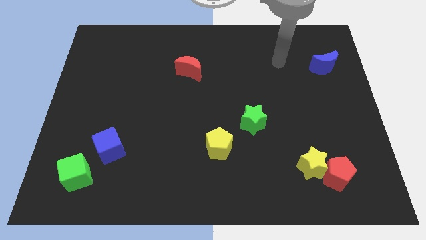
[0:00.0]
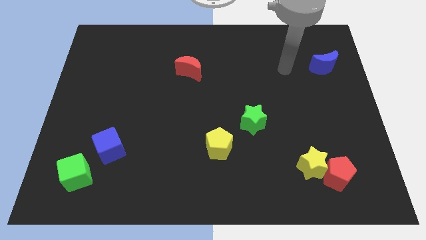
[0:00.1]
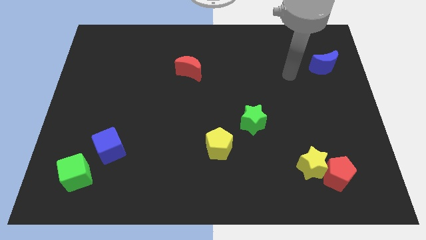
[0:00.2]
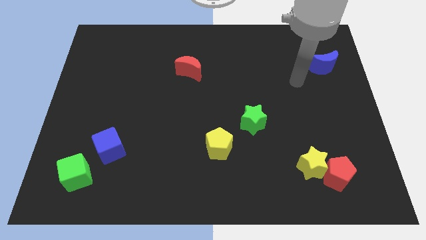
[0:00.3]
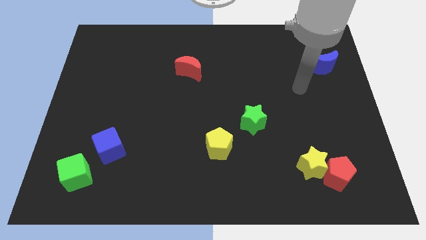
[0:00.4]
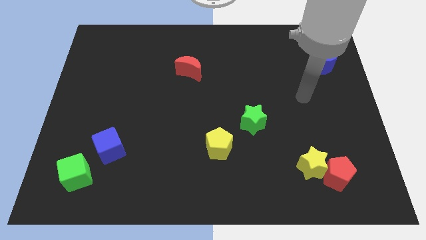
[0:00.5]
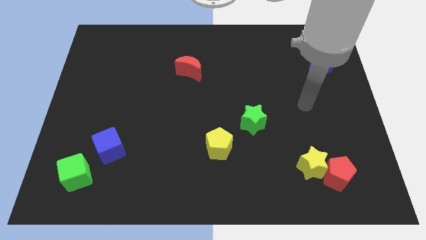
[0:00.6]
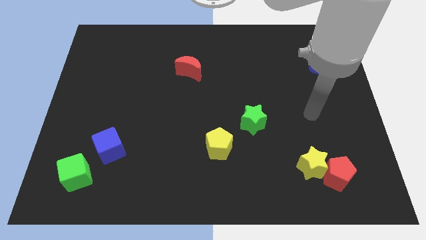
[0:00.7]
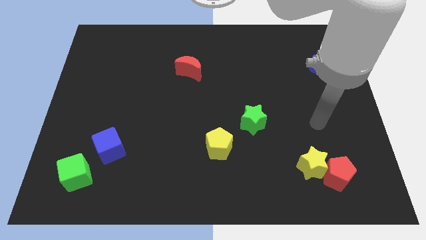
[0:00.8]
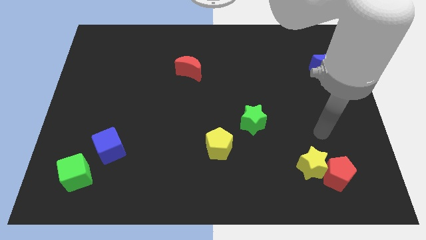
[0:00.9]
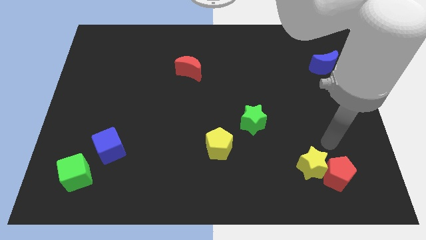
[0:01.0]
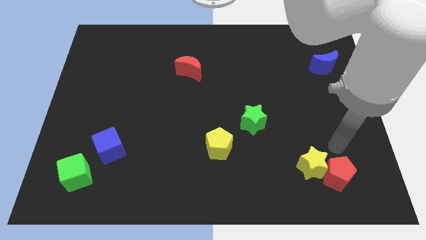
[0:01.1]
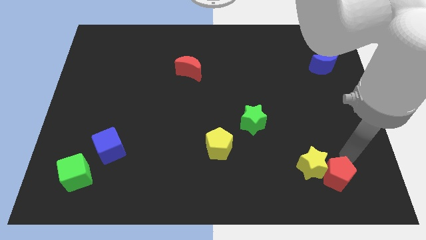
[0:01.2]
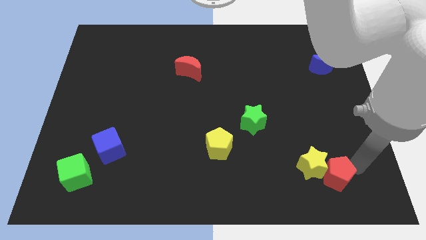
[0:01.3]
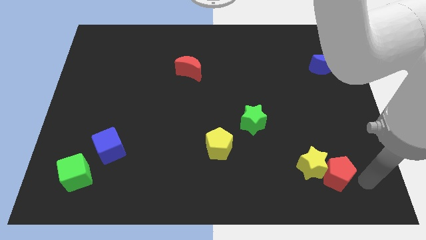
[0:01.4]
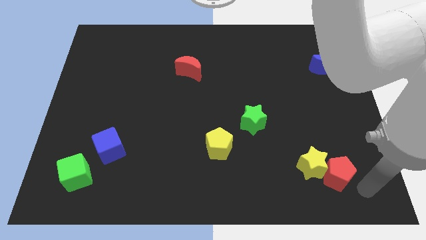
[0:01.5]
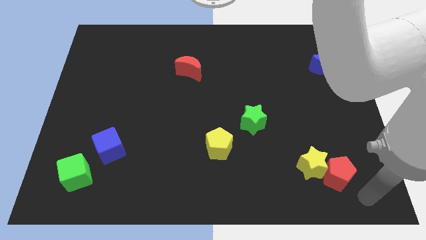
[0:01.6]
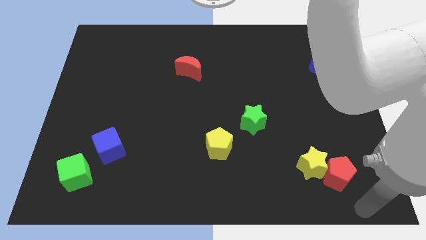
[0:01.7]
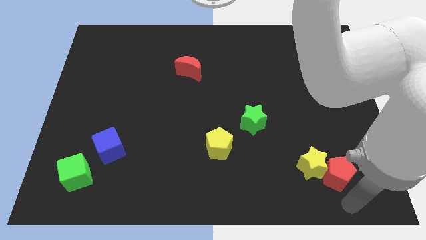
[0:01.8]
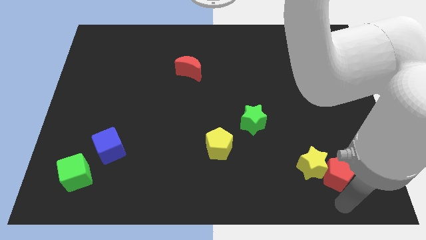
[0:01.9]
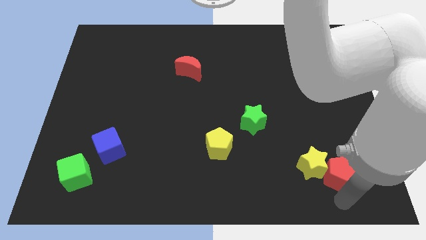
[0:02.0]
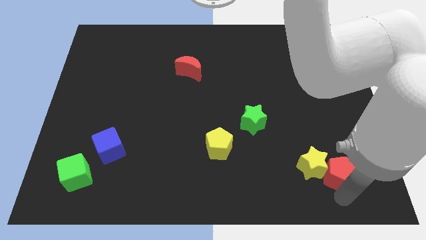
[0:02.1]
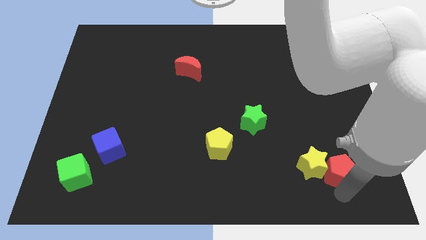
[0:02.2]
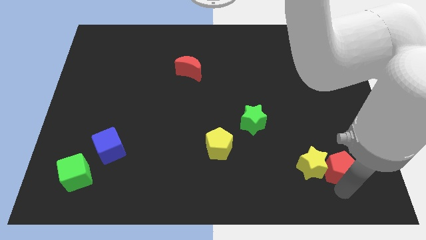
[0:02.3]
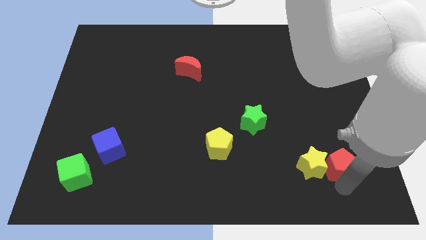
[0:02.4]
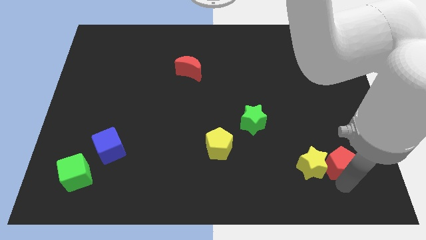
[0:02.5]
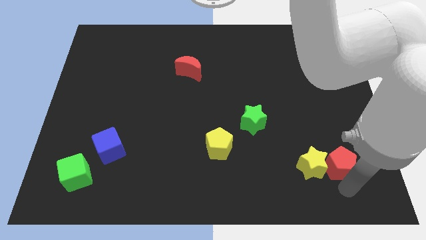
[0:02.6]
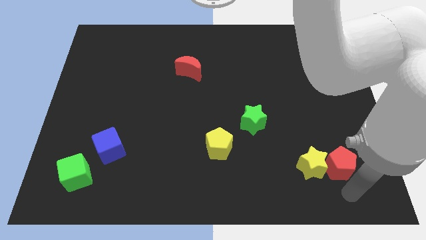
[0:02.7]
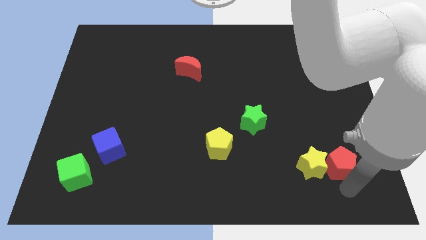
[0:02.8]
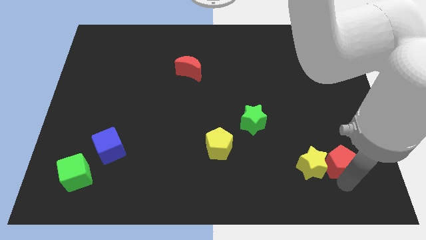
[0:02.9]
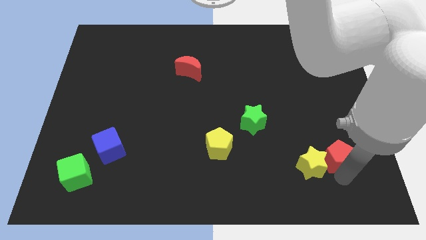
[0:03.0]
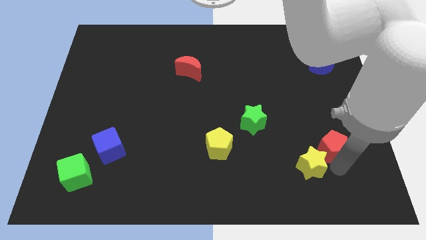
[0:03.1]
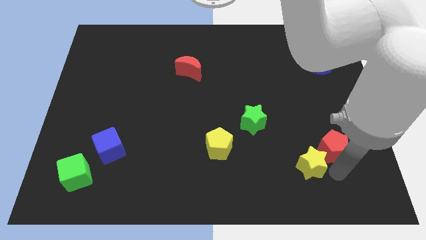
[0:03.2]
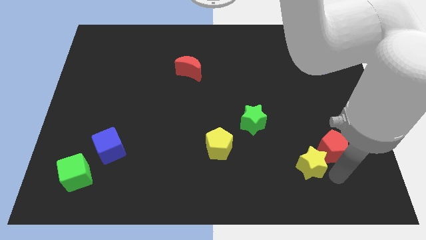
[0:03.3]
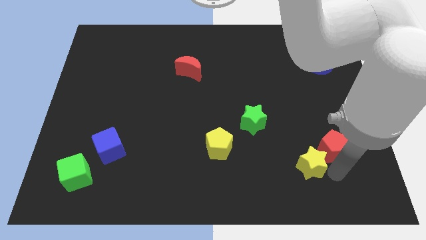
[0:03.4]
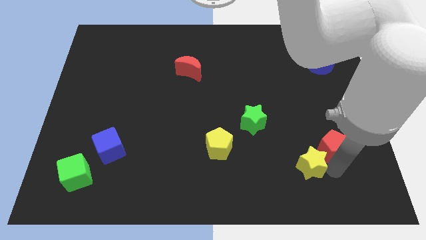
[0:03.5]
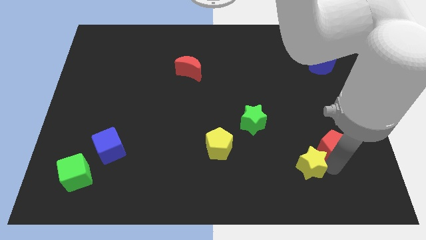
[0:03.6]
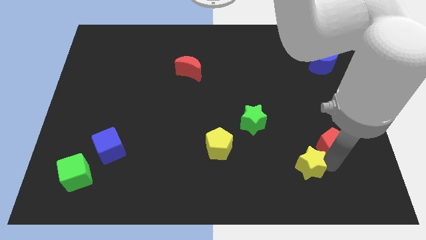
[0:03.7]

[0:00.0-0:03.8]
push the red pentagon a little bit upwards

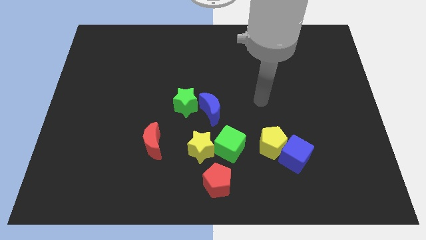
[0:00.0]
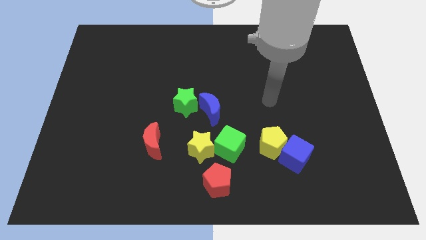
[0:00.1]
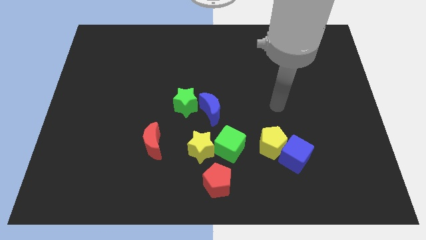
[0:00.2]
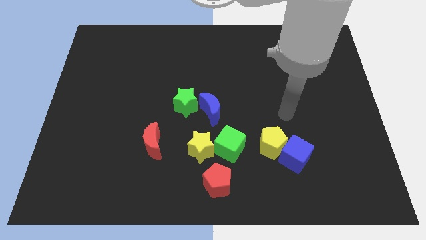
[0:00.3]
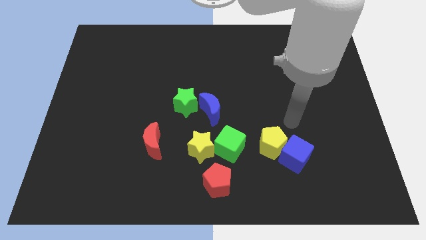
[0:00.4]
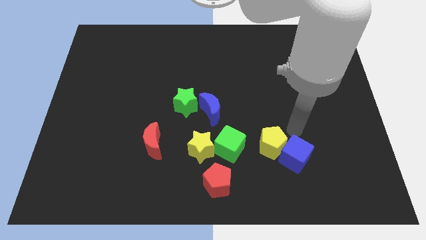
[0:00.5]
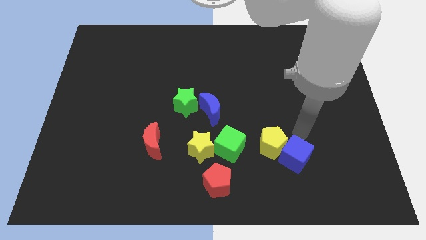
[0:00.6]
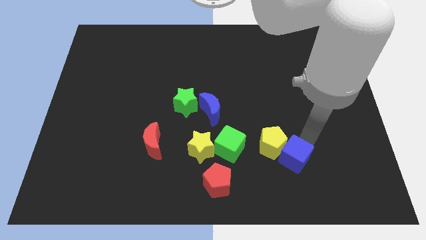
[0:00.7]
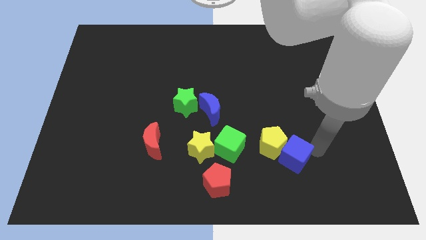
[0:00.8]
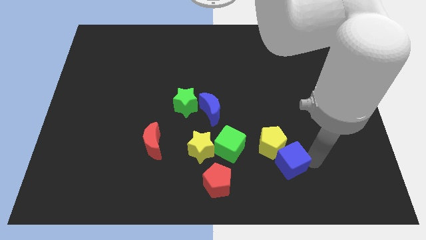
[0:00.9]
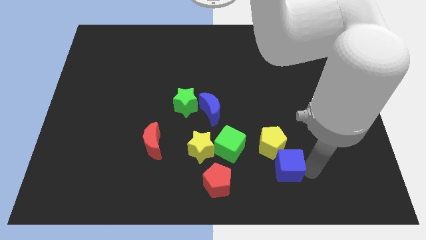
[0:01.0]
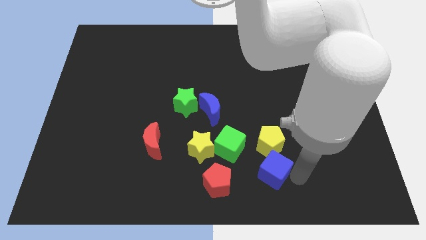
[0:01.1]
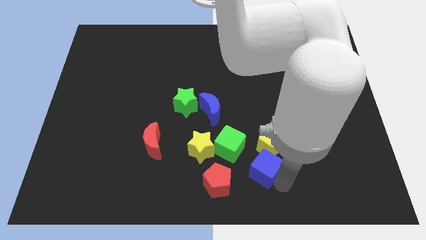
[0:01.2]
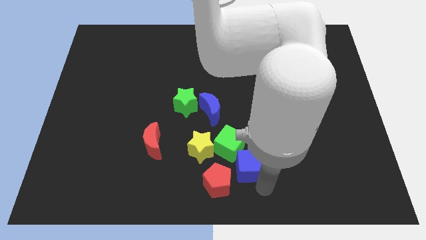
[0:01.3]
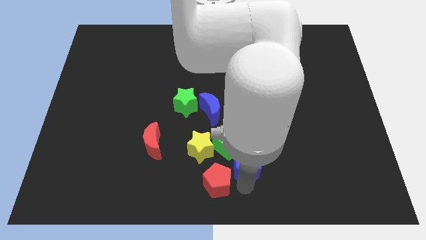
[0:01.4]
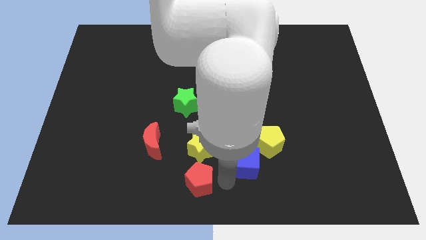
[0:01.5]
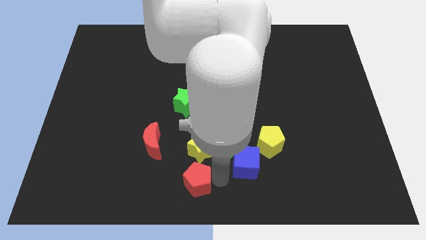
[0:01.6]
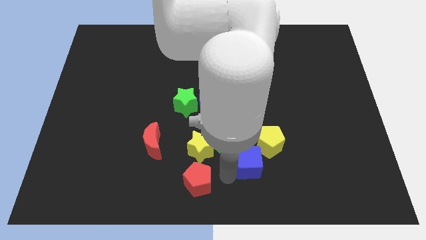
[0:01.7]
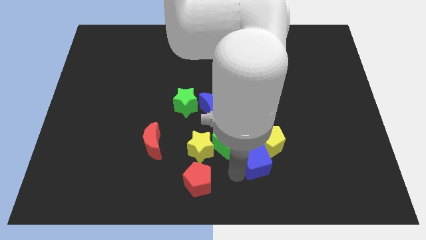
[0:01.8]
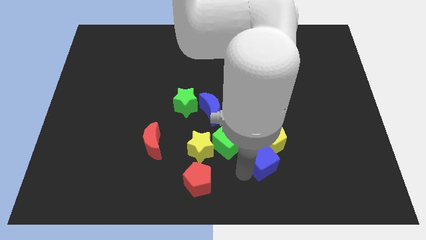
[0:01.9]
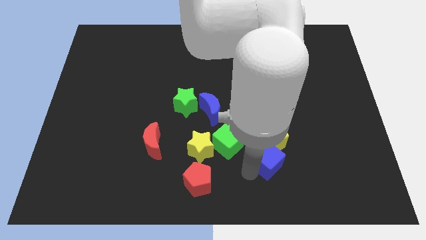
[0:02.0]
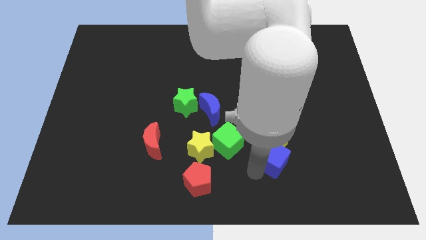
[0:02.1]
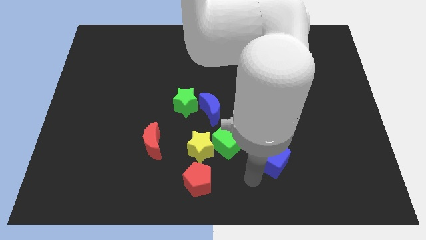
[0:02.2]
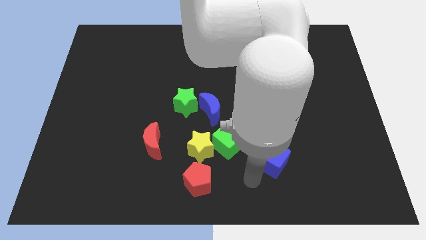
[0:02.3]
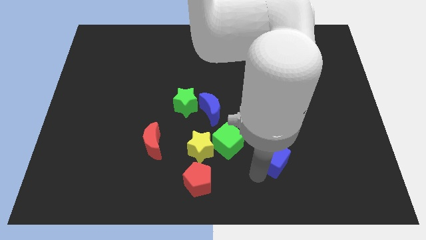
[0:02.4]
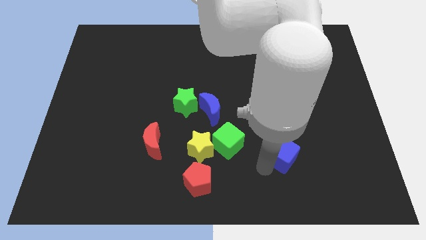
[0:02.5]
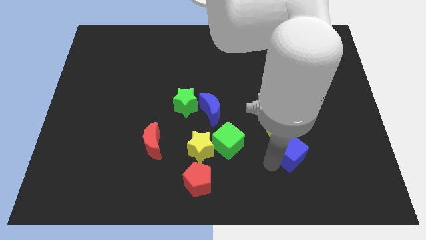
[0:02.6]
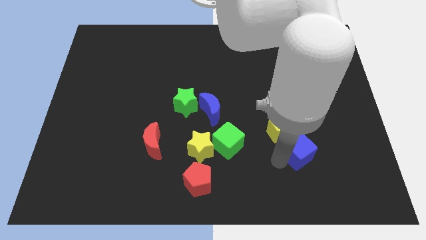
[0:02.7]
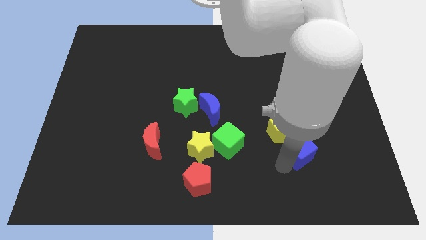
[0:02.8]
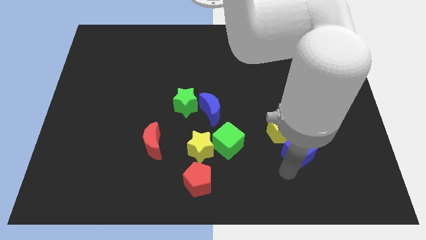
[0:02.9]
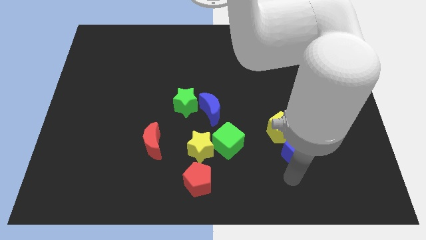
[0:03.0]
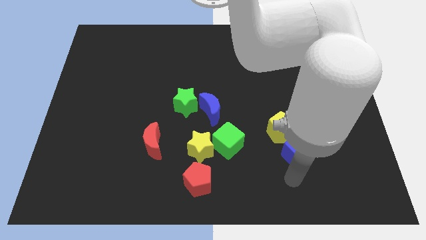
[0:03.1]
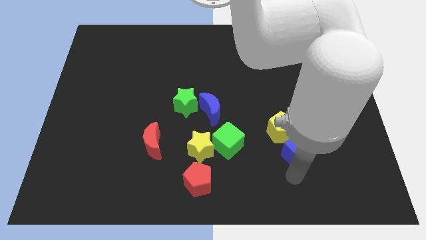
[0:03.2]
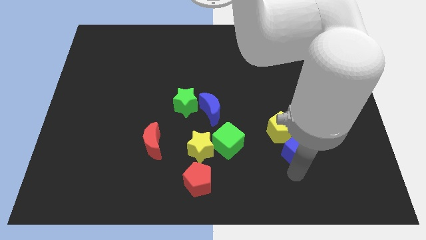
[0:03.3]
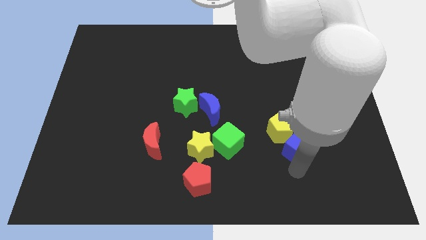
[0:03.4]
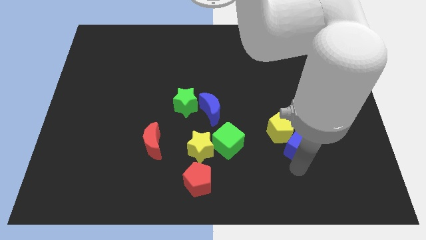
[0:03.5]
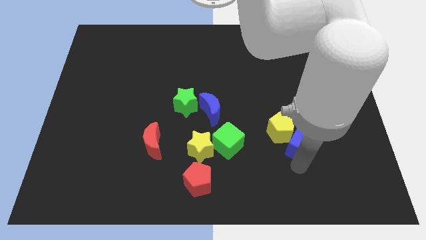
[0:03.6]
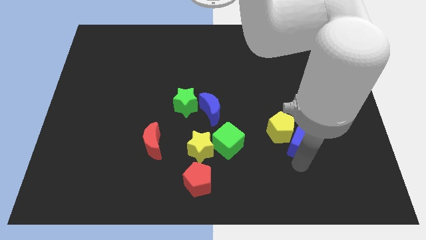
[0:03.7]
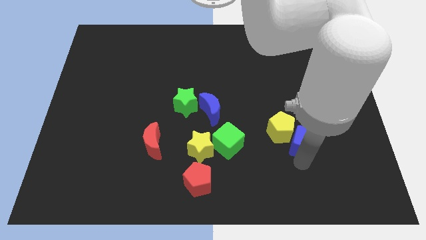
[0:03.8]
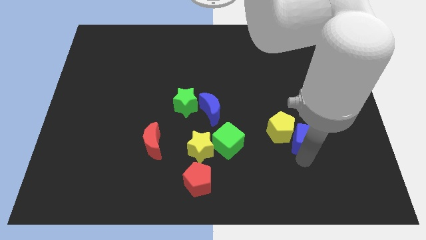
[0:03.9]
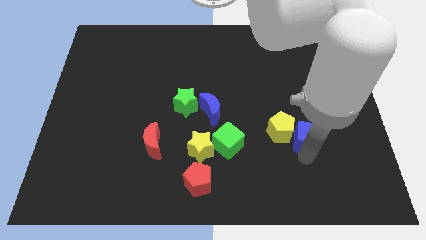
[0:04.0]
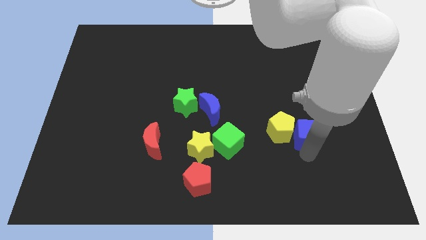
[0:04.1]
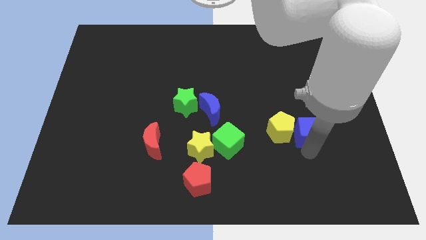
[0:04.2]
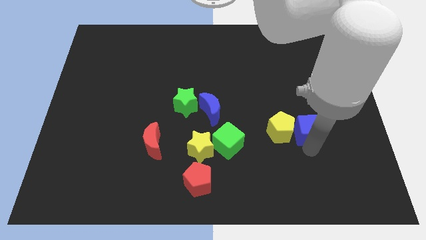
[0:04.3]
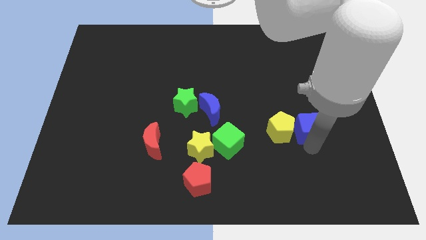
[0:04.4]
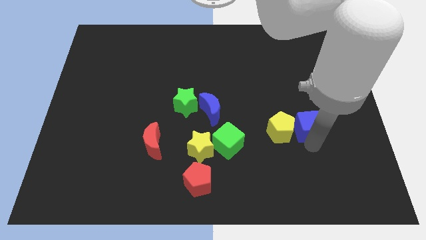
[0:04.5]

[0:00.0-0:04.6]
slide the blue cube a little bit up
